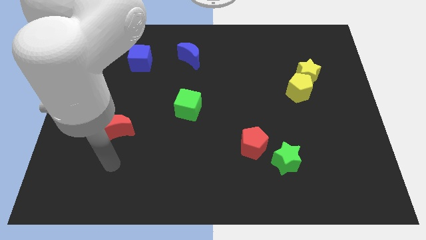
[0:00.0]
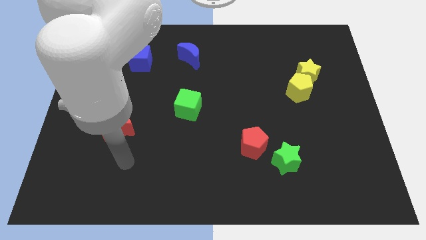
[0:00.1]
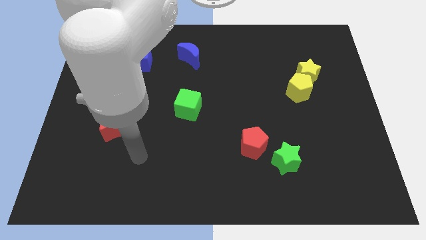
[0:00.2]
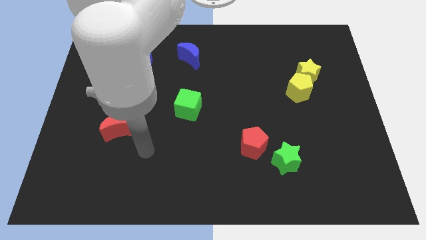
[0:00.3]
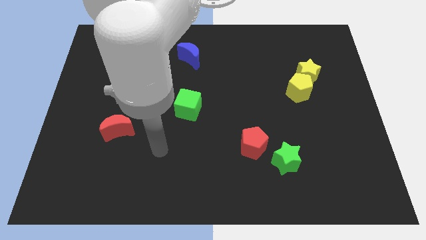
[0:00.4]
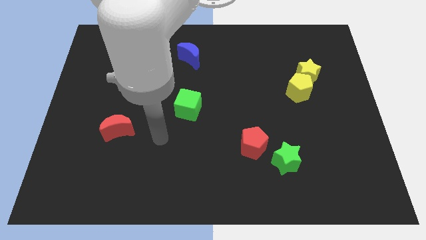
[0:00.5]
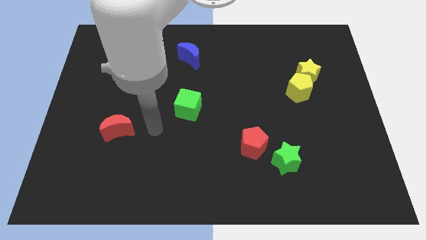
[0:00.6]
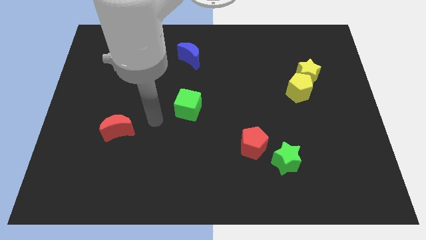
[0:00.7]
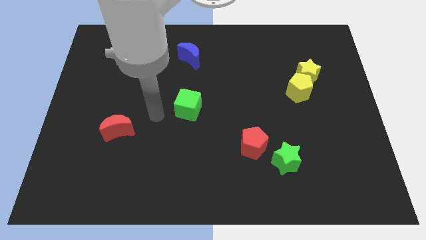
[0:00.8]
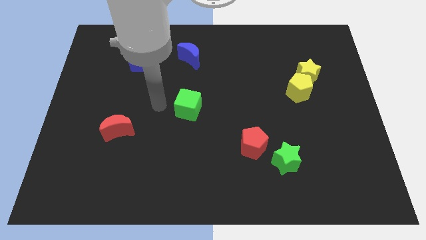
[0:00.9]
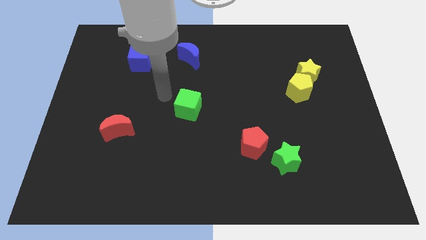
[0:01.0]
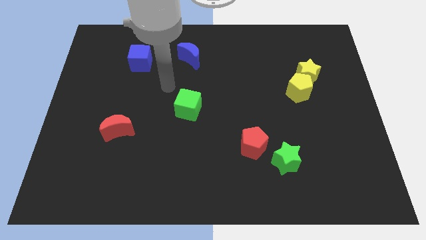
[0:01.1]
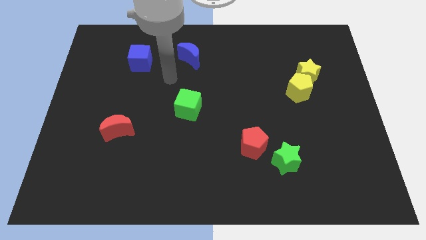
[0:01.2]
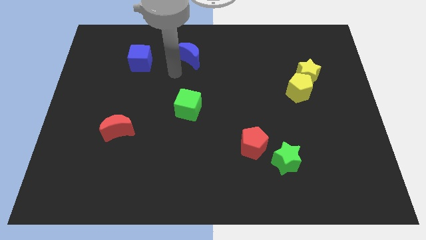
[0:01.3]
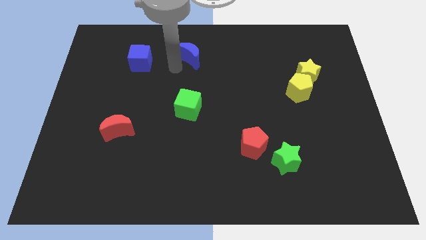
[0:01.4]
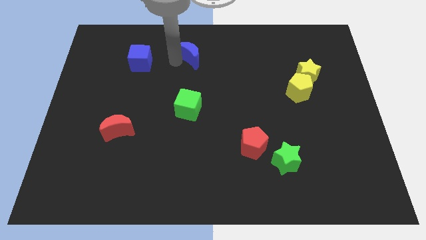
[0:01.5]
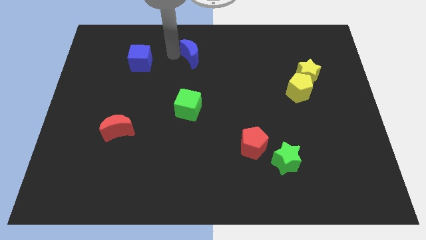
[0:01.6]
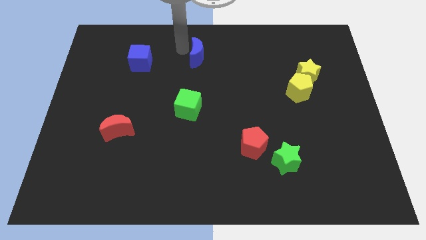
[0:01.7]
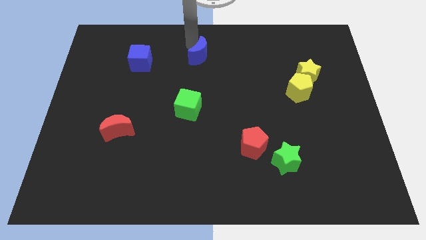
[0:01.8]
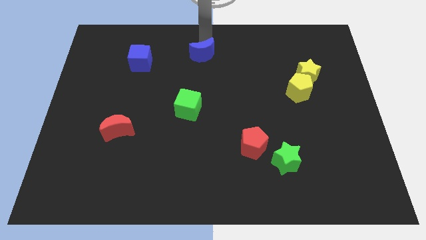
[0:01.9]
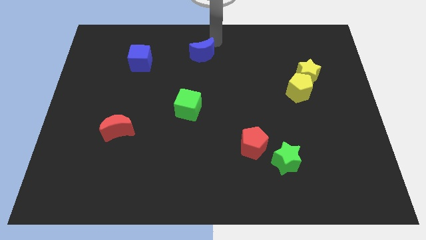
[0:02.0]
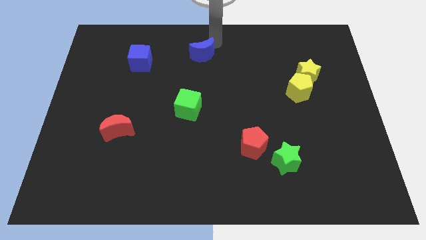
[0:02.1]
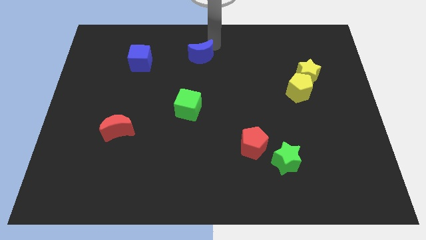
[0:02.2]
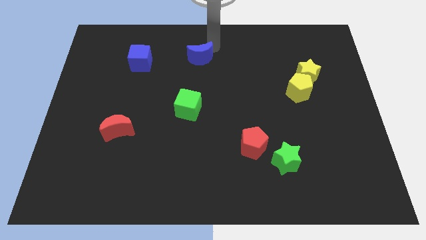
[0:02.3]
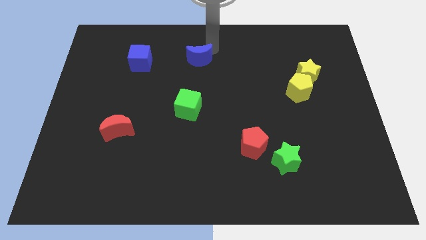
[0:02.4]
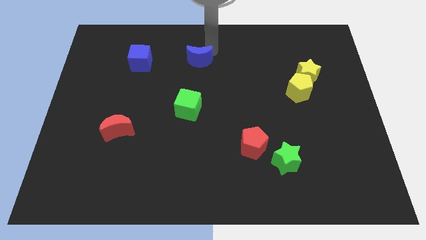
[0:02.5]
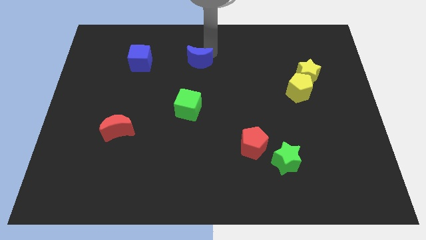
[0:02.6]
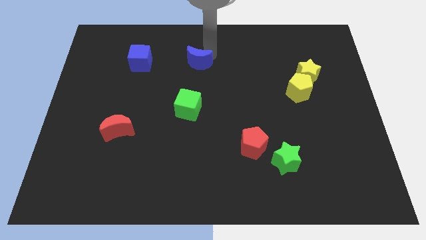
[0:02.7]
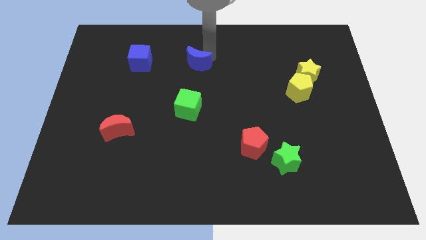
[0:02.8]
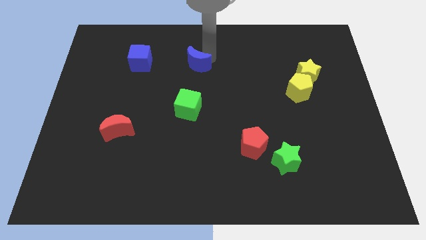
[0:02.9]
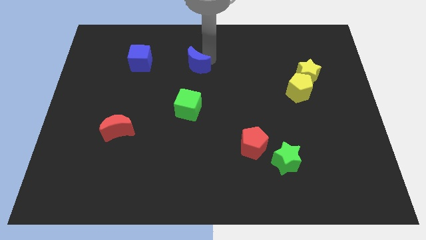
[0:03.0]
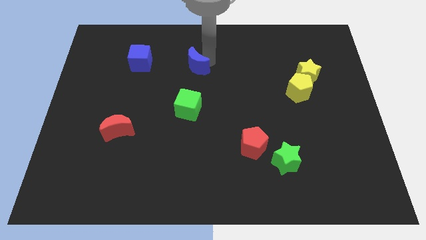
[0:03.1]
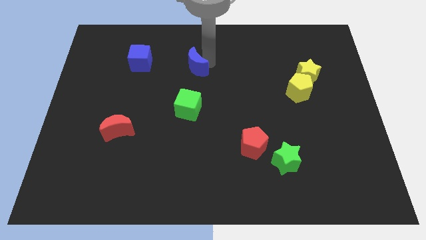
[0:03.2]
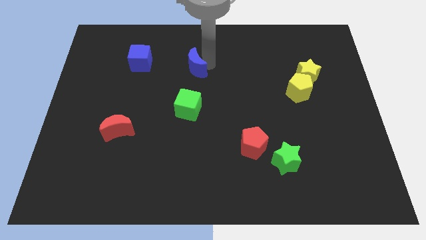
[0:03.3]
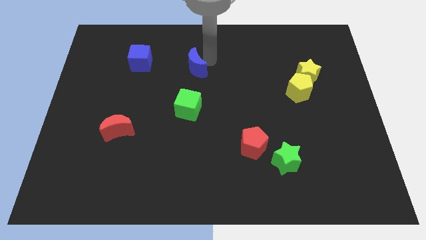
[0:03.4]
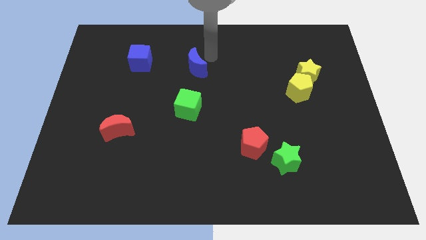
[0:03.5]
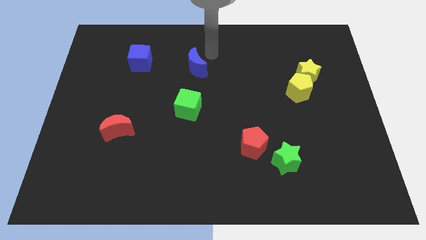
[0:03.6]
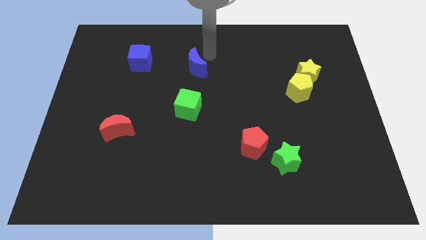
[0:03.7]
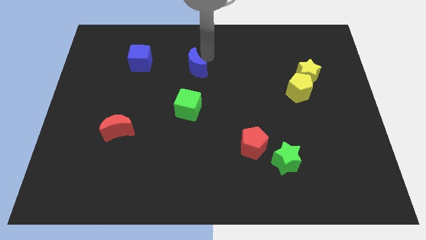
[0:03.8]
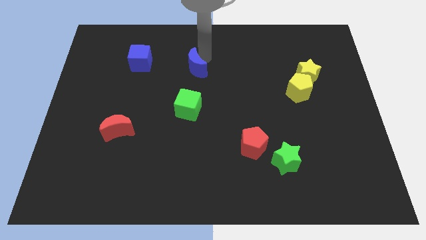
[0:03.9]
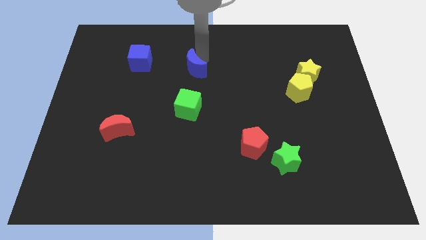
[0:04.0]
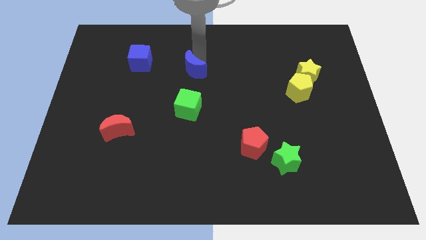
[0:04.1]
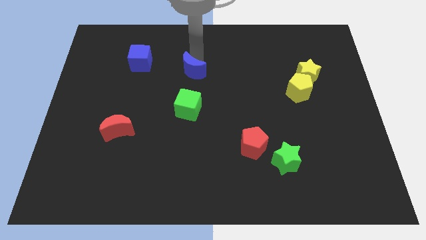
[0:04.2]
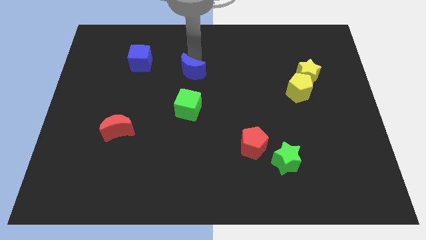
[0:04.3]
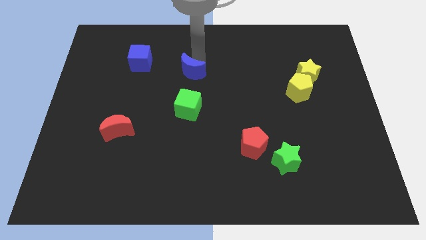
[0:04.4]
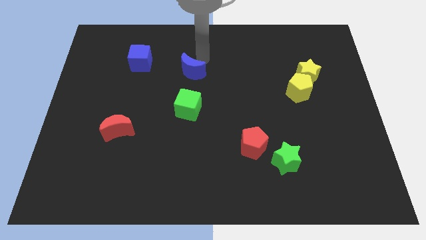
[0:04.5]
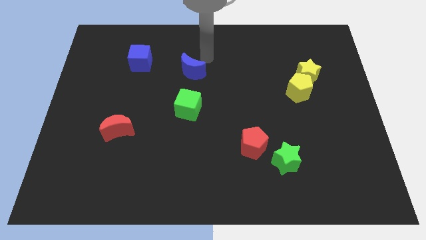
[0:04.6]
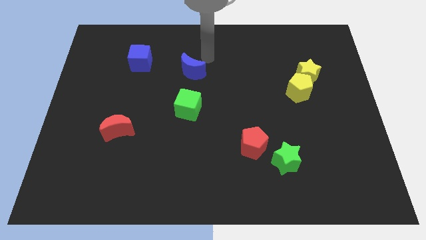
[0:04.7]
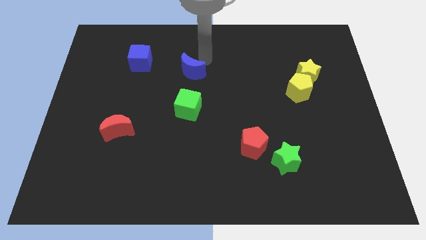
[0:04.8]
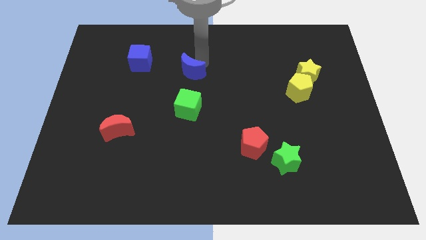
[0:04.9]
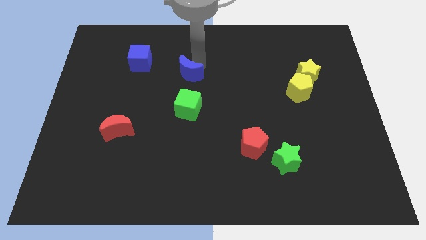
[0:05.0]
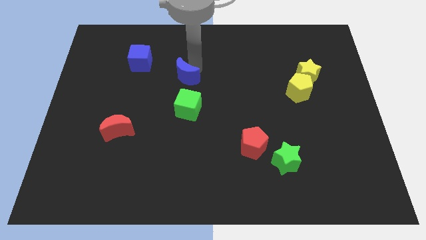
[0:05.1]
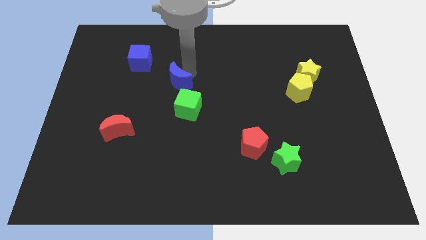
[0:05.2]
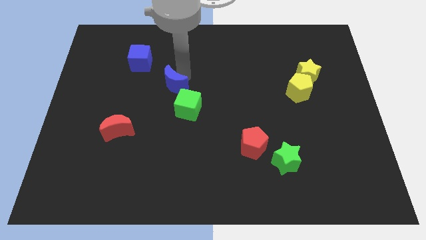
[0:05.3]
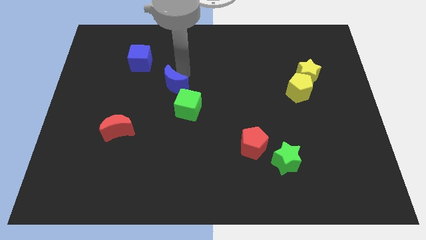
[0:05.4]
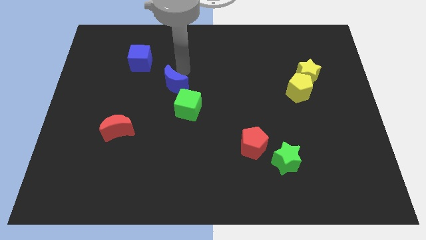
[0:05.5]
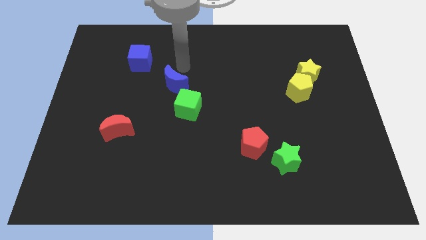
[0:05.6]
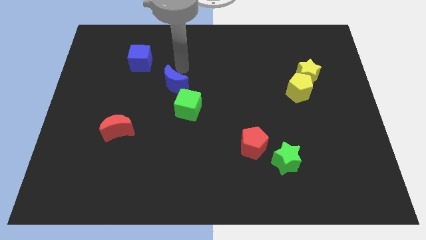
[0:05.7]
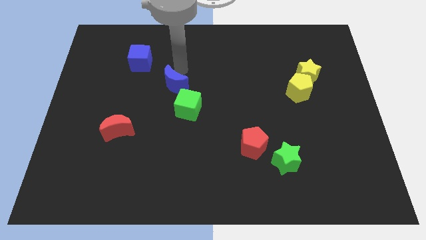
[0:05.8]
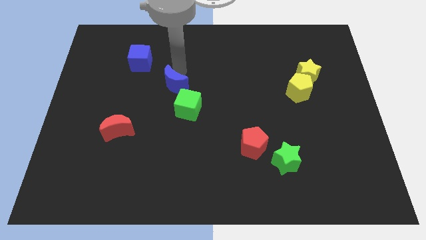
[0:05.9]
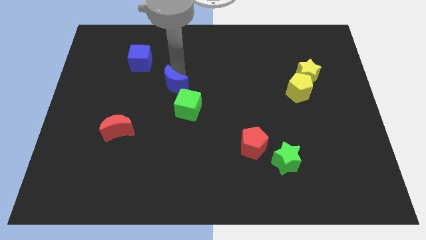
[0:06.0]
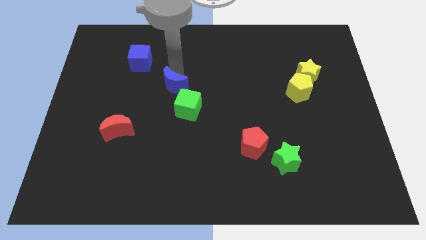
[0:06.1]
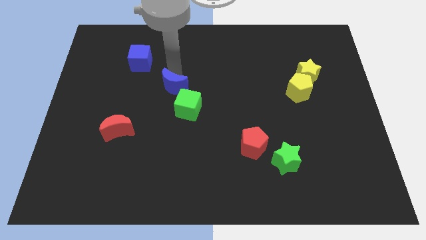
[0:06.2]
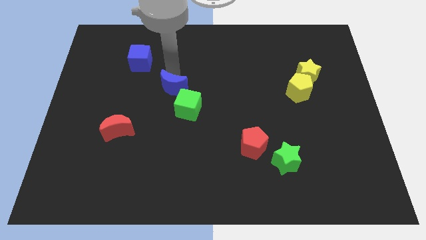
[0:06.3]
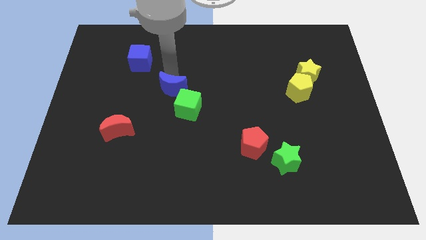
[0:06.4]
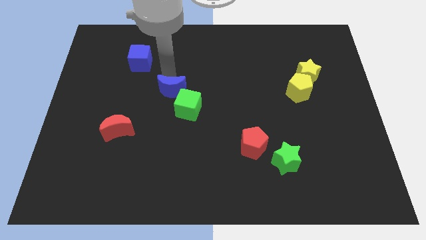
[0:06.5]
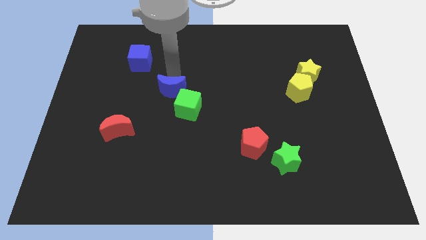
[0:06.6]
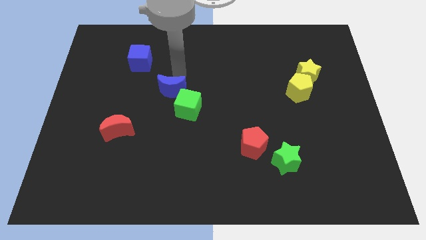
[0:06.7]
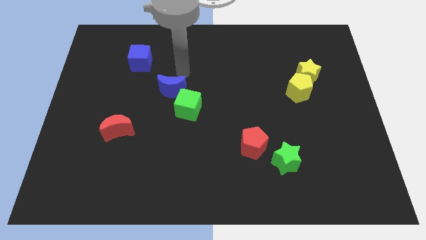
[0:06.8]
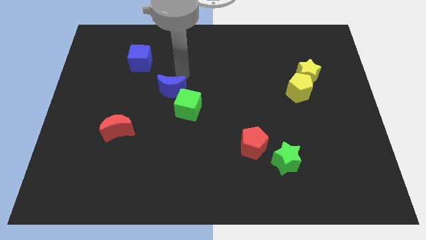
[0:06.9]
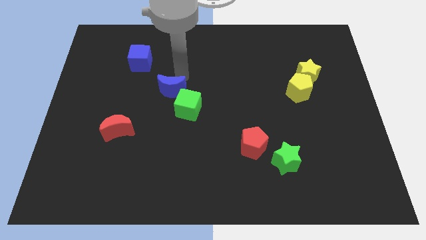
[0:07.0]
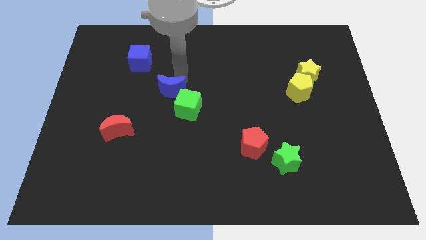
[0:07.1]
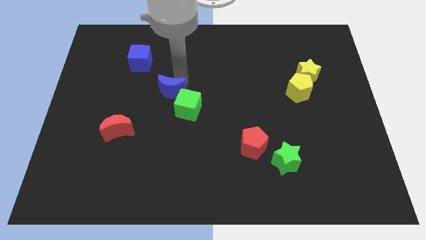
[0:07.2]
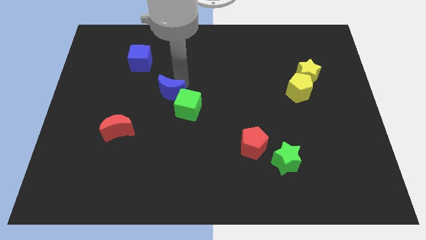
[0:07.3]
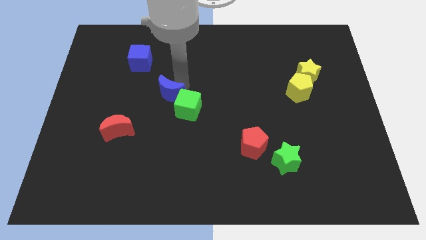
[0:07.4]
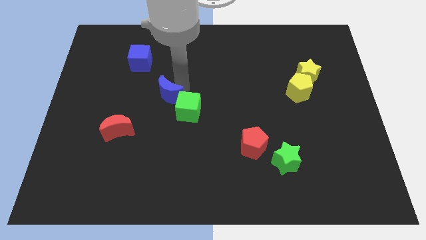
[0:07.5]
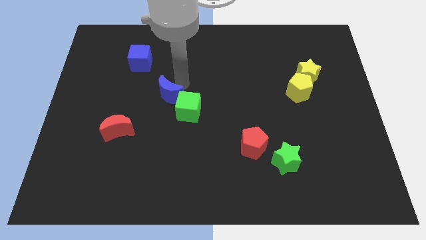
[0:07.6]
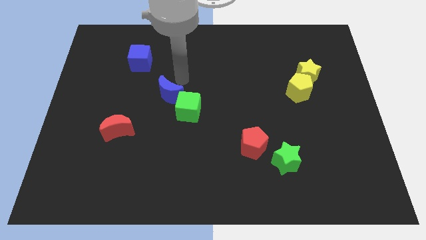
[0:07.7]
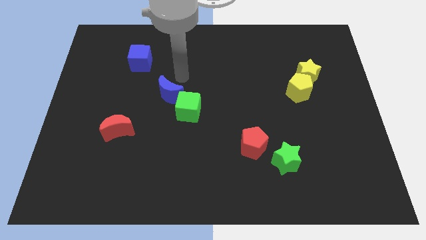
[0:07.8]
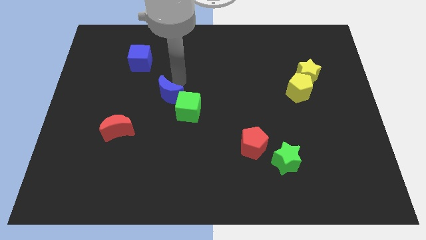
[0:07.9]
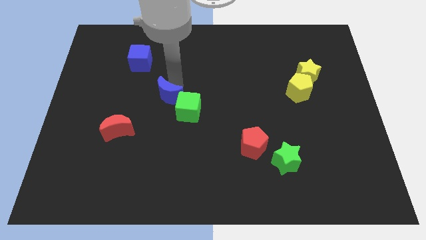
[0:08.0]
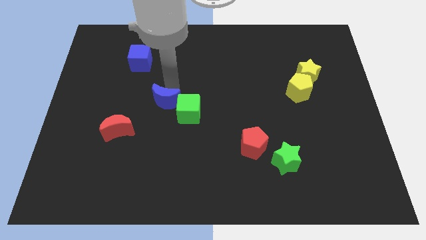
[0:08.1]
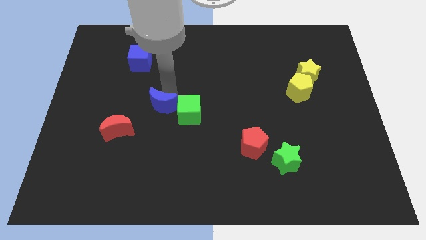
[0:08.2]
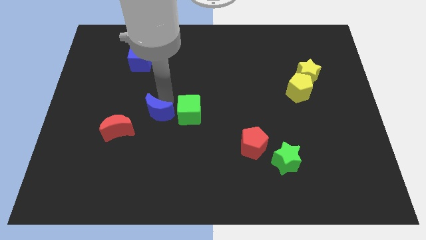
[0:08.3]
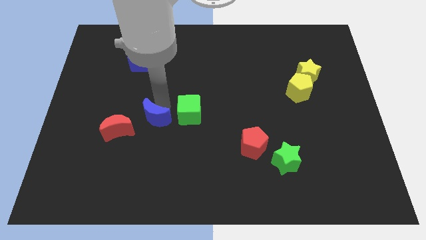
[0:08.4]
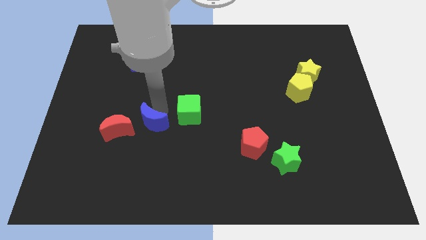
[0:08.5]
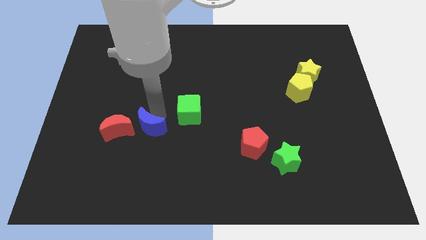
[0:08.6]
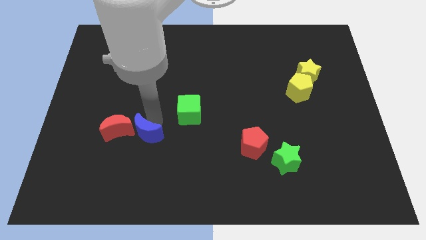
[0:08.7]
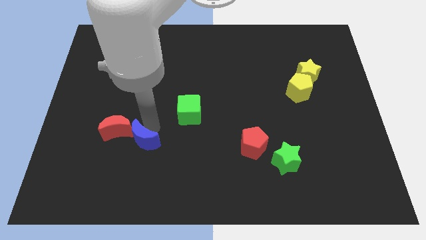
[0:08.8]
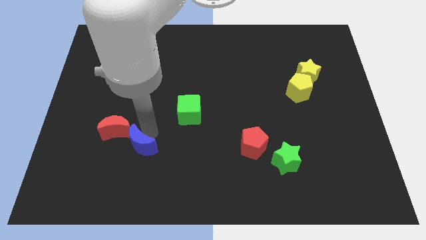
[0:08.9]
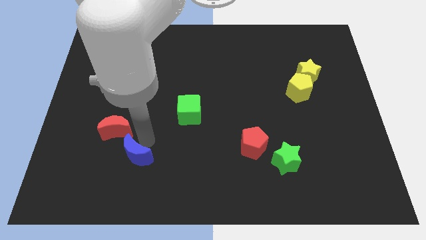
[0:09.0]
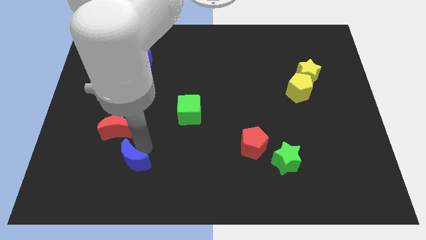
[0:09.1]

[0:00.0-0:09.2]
put the blue moon below the red moon
